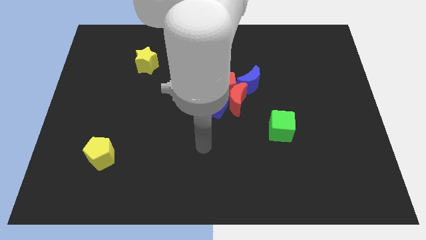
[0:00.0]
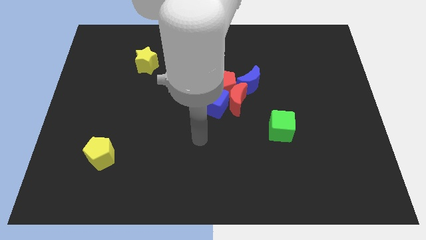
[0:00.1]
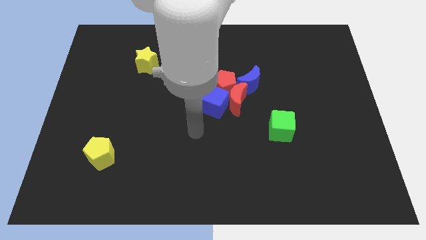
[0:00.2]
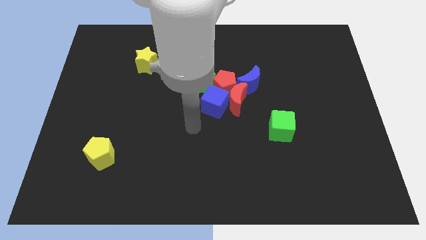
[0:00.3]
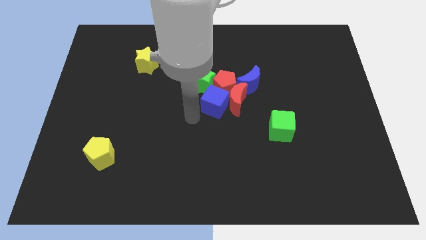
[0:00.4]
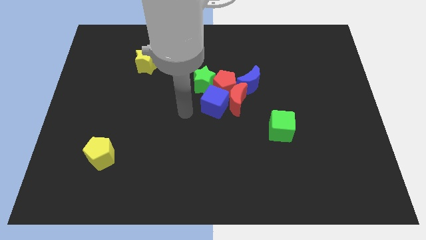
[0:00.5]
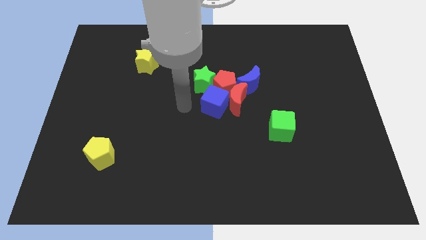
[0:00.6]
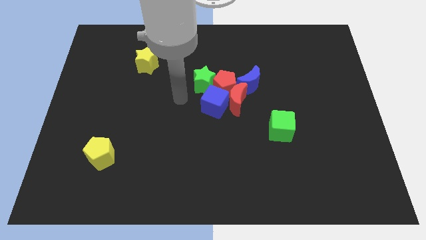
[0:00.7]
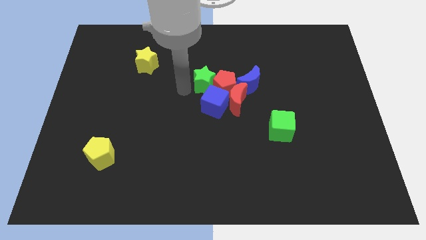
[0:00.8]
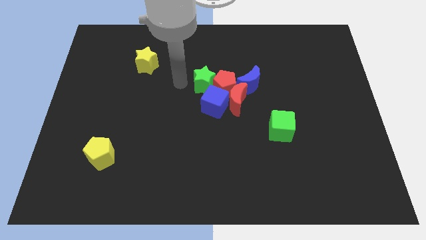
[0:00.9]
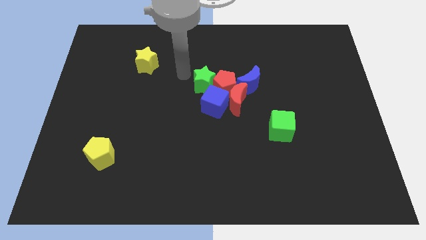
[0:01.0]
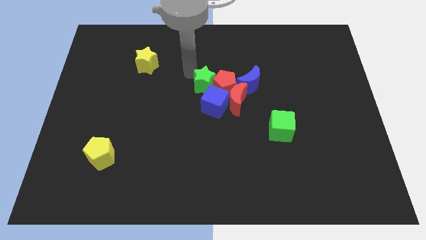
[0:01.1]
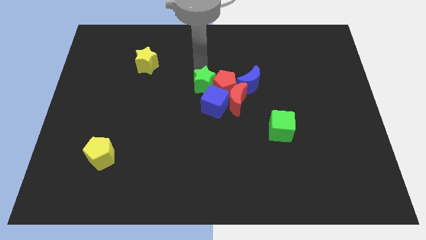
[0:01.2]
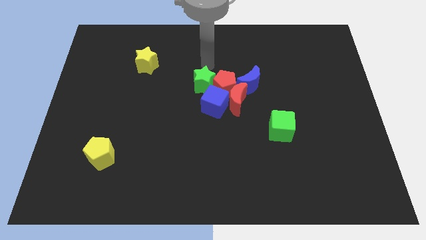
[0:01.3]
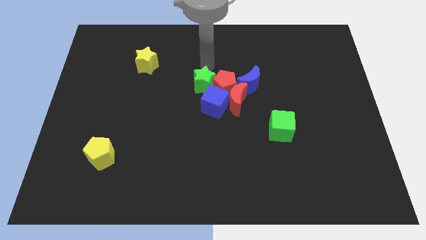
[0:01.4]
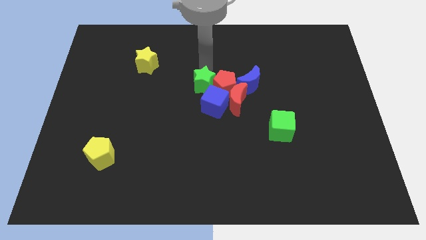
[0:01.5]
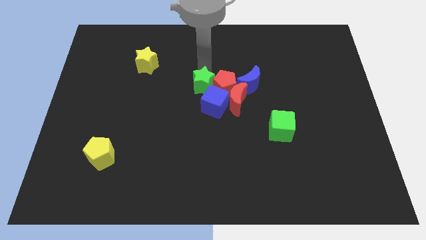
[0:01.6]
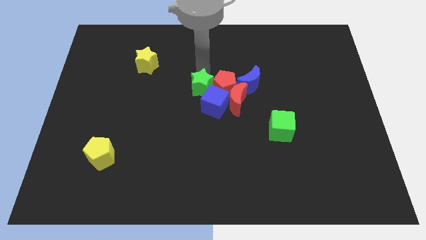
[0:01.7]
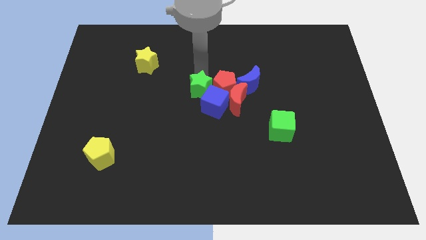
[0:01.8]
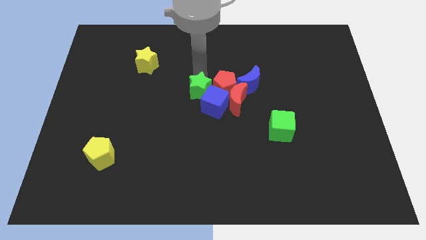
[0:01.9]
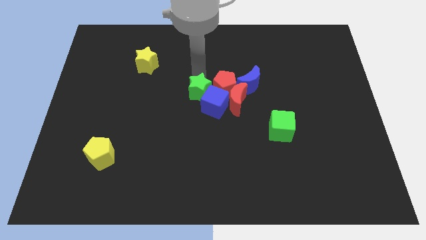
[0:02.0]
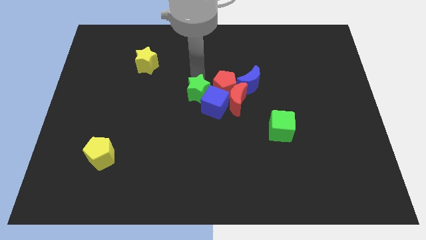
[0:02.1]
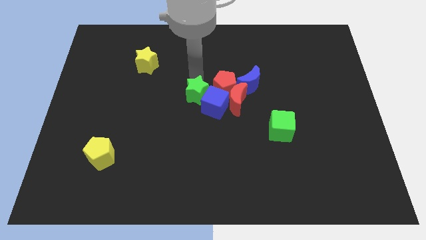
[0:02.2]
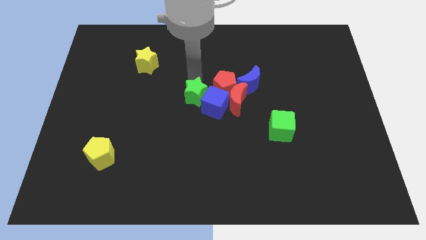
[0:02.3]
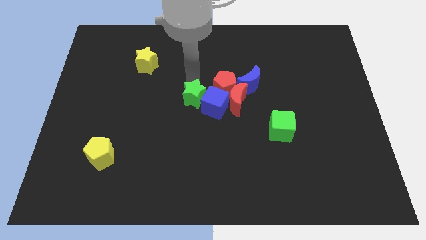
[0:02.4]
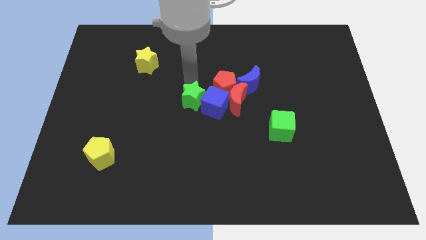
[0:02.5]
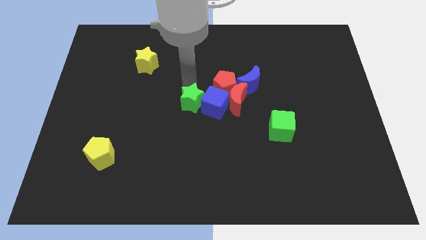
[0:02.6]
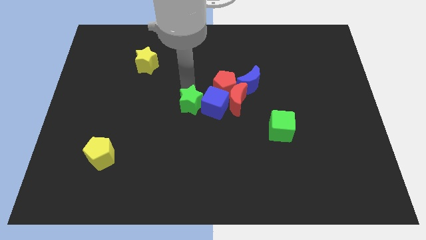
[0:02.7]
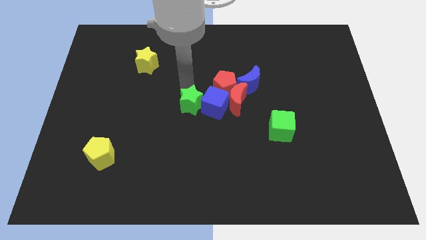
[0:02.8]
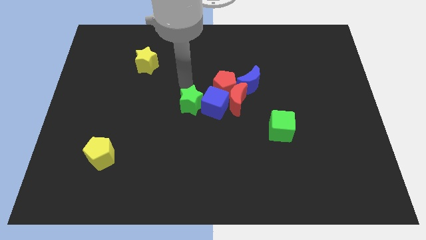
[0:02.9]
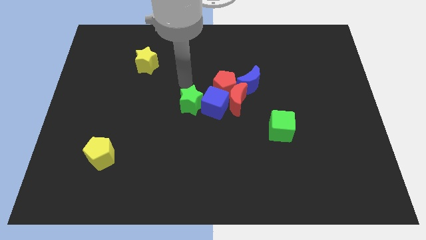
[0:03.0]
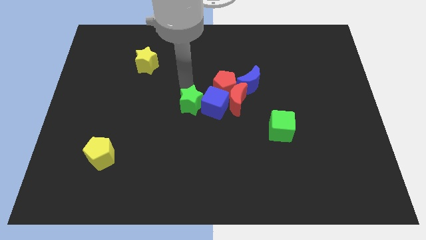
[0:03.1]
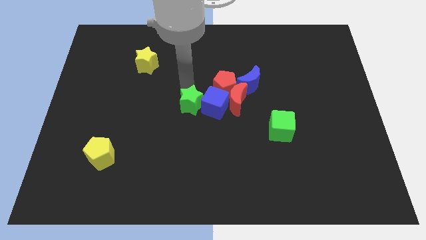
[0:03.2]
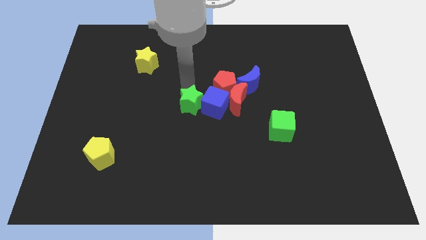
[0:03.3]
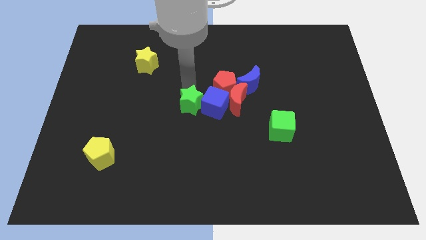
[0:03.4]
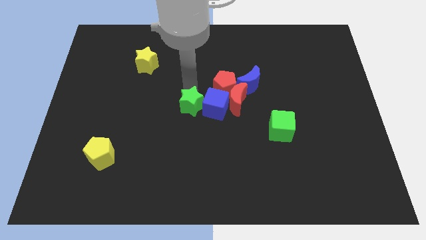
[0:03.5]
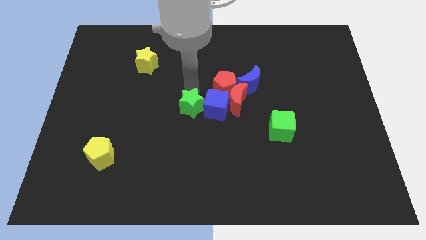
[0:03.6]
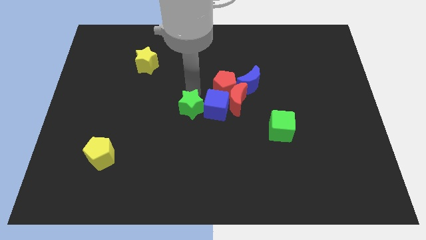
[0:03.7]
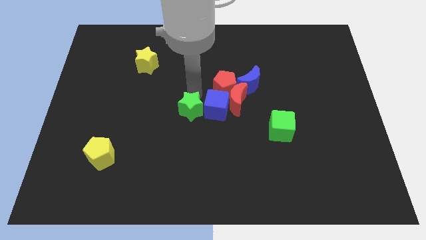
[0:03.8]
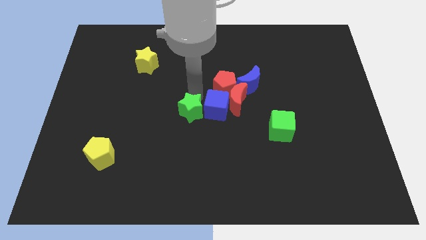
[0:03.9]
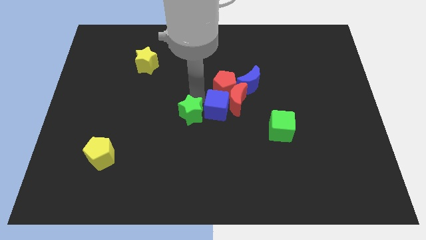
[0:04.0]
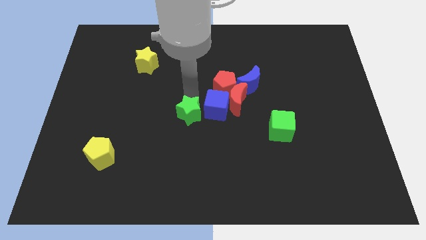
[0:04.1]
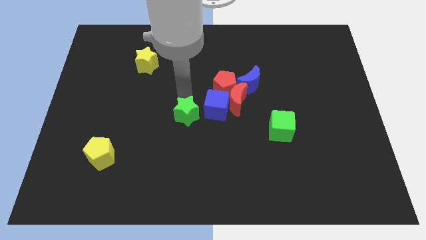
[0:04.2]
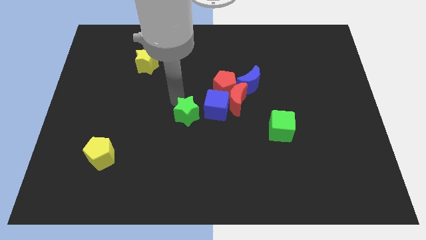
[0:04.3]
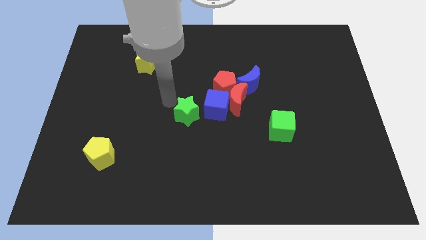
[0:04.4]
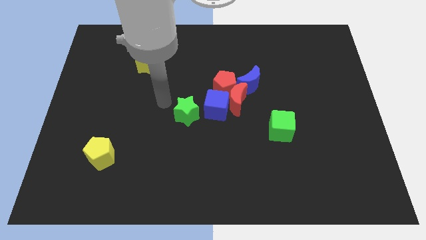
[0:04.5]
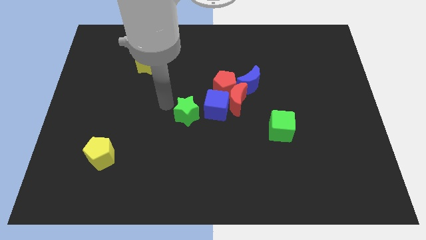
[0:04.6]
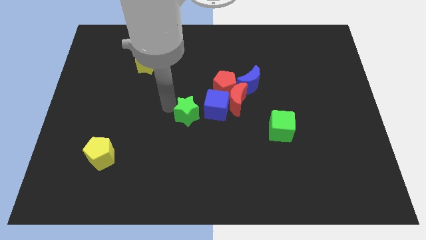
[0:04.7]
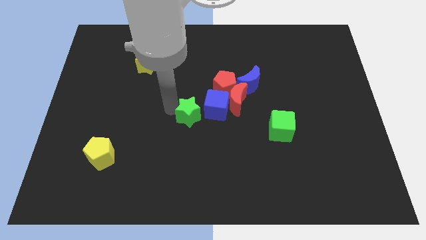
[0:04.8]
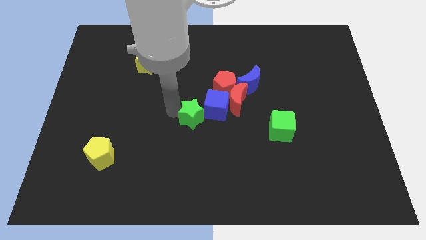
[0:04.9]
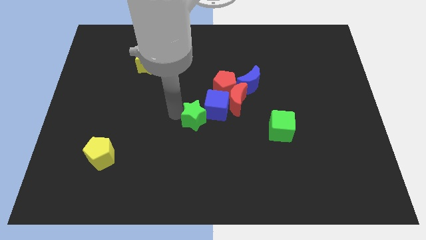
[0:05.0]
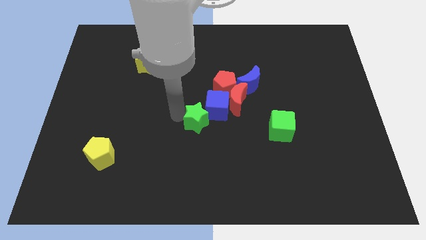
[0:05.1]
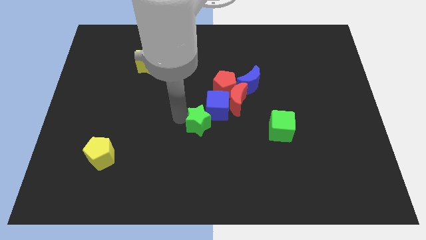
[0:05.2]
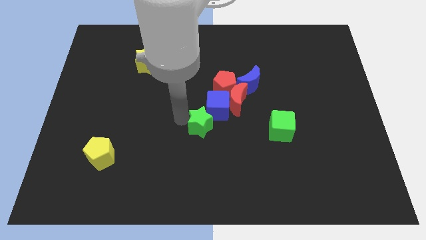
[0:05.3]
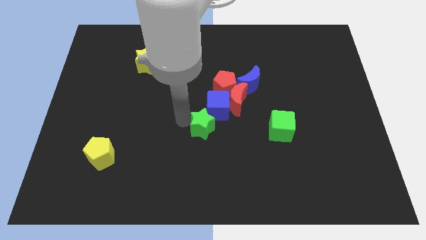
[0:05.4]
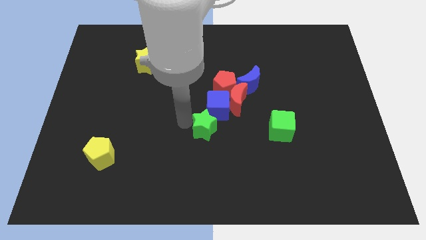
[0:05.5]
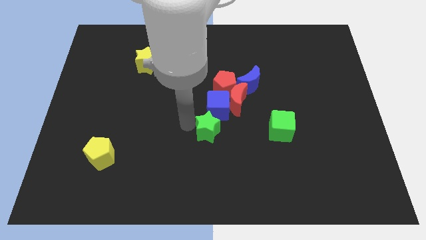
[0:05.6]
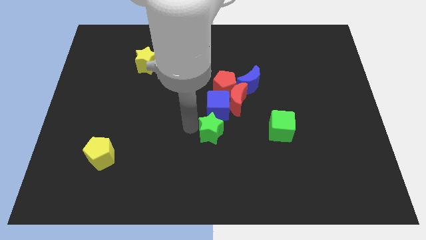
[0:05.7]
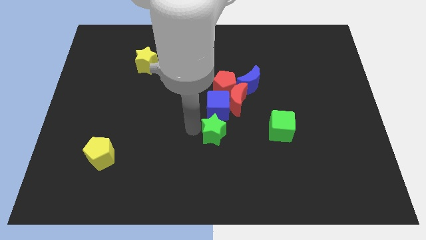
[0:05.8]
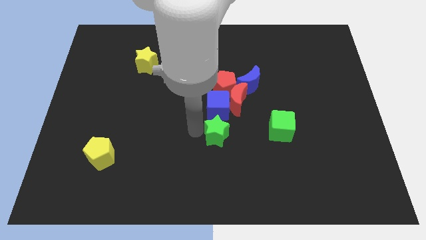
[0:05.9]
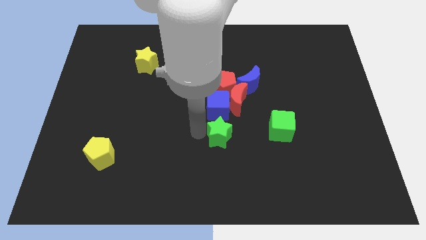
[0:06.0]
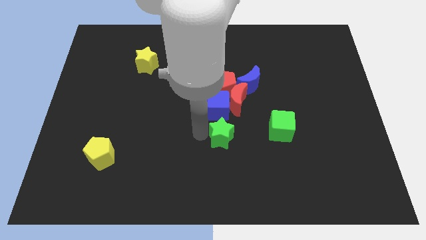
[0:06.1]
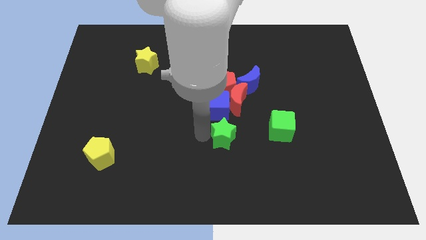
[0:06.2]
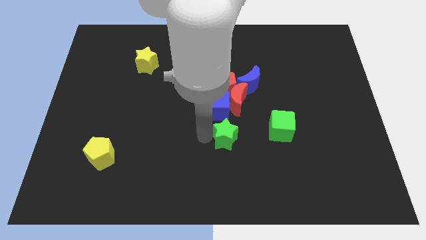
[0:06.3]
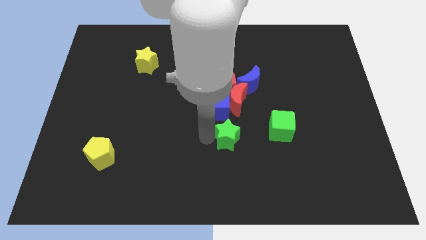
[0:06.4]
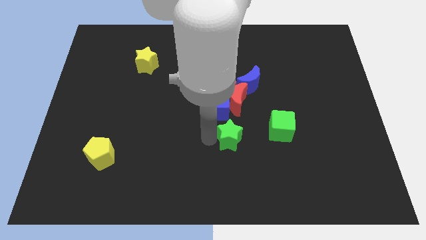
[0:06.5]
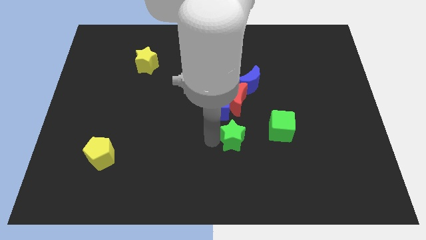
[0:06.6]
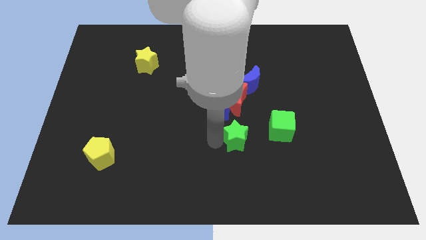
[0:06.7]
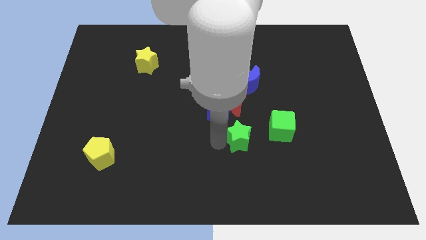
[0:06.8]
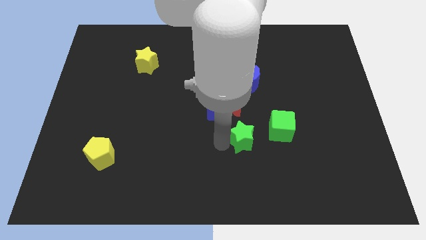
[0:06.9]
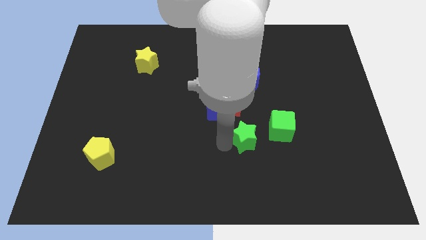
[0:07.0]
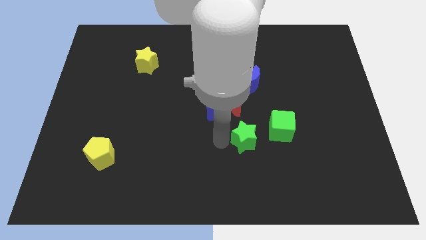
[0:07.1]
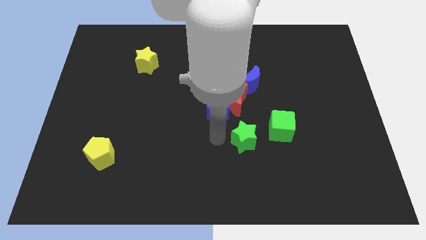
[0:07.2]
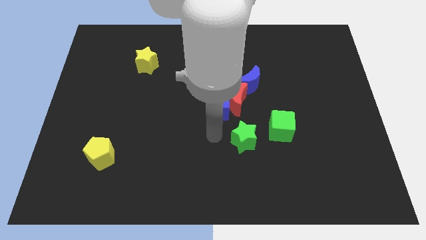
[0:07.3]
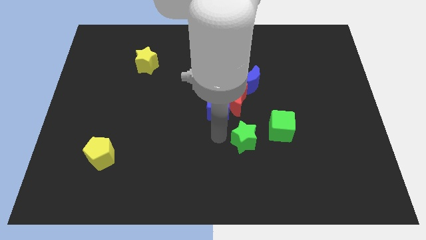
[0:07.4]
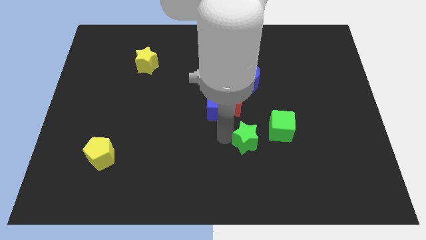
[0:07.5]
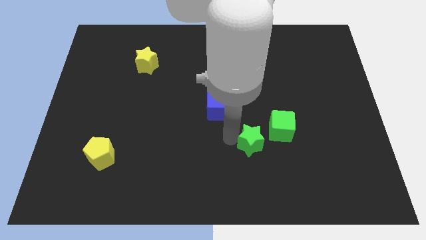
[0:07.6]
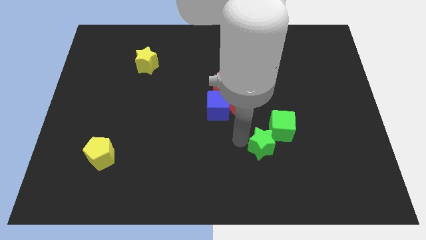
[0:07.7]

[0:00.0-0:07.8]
move the green star down and to the right

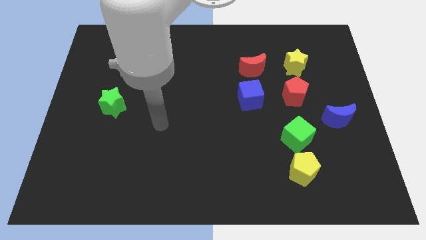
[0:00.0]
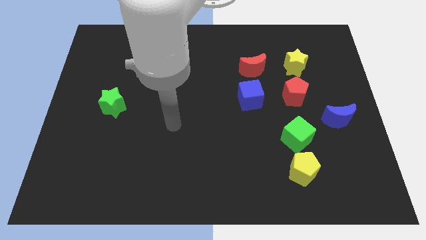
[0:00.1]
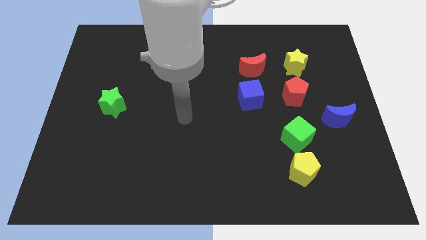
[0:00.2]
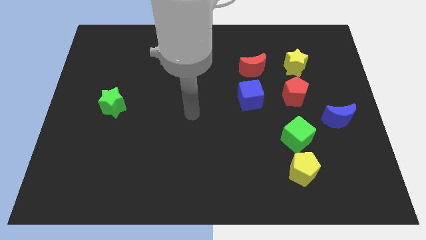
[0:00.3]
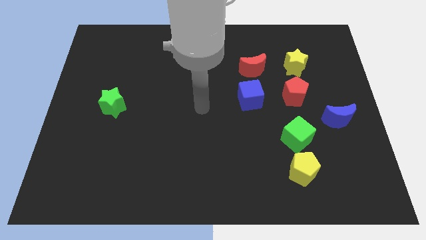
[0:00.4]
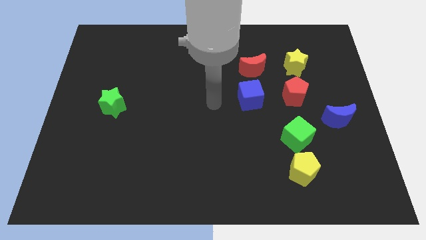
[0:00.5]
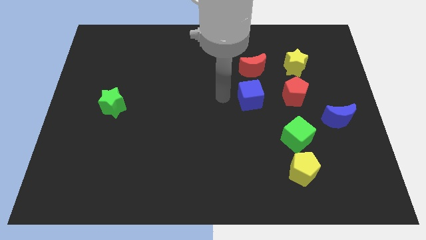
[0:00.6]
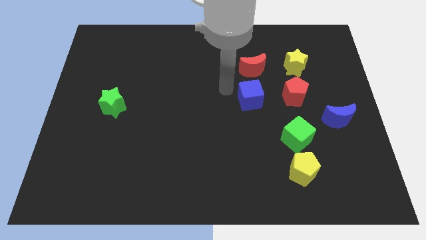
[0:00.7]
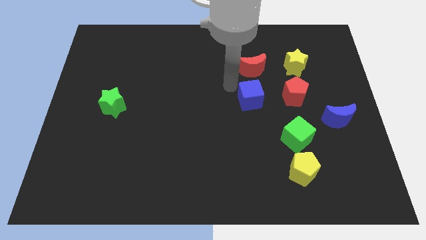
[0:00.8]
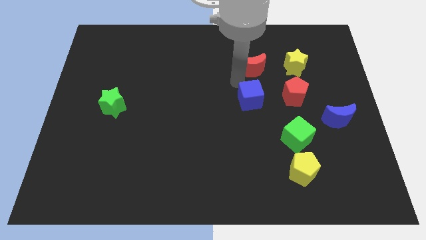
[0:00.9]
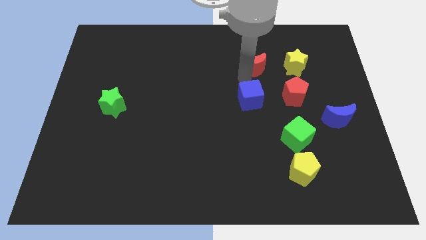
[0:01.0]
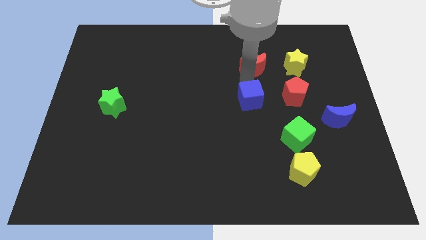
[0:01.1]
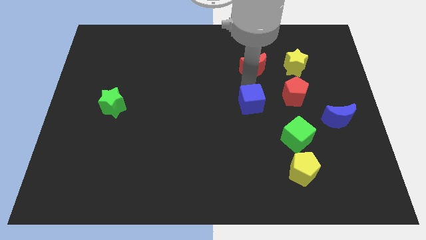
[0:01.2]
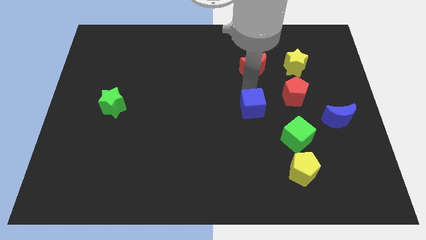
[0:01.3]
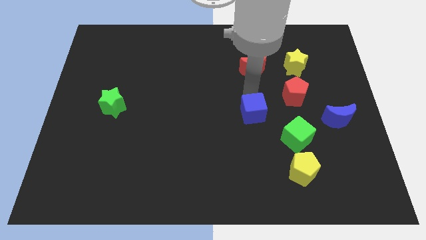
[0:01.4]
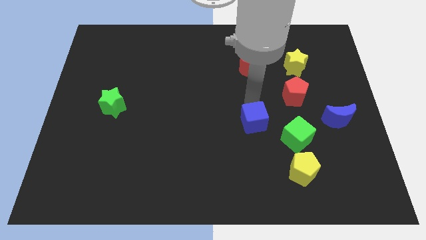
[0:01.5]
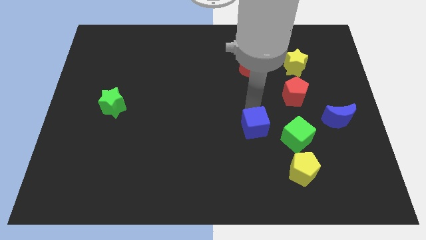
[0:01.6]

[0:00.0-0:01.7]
push the blue cube a bit down
